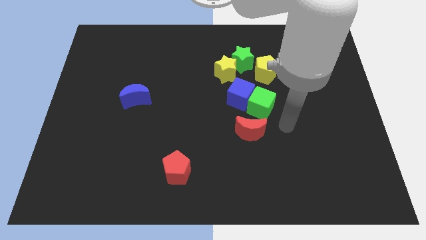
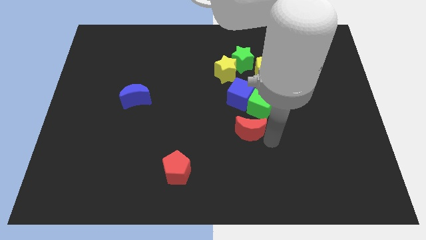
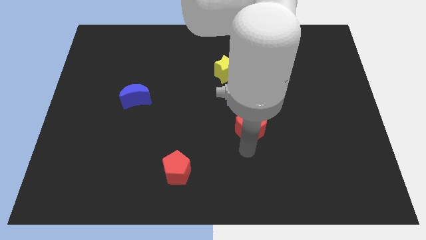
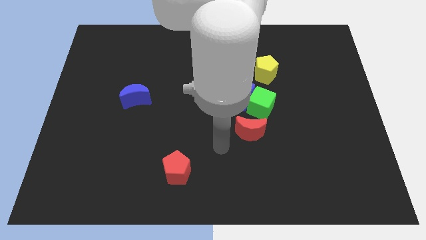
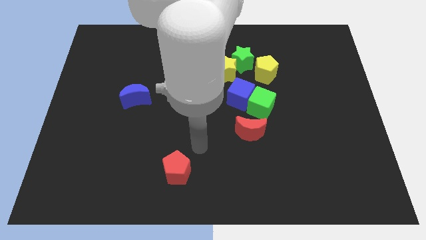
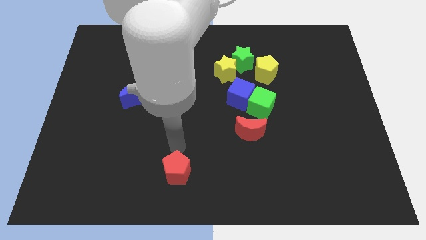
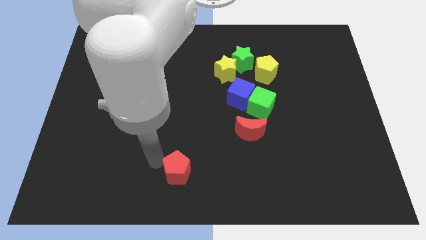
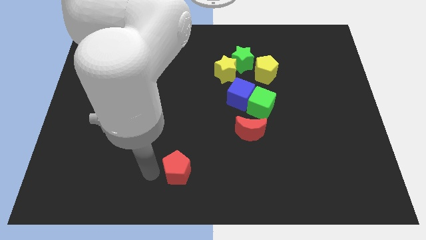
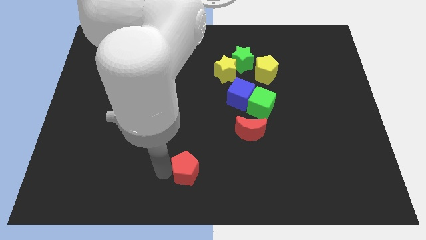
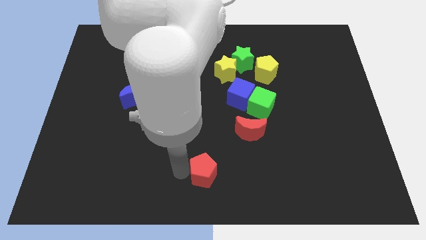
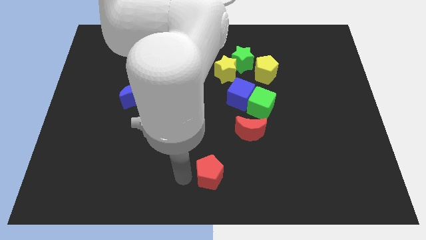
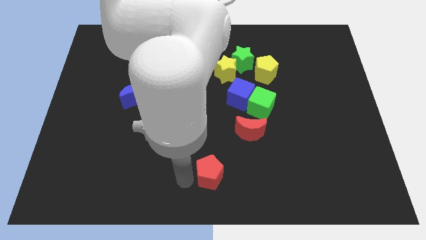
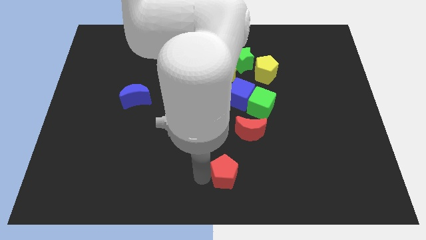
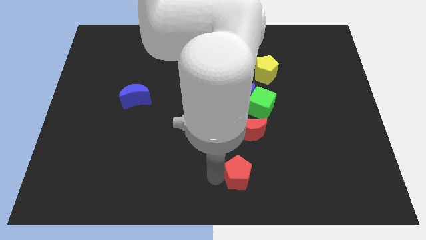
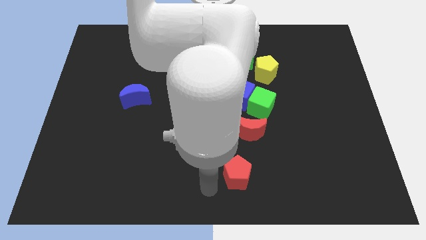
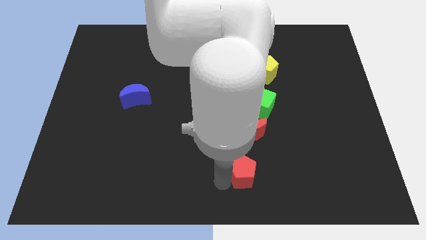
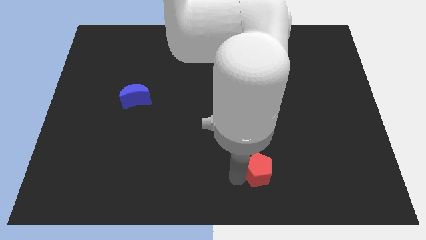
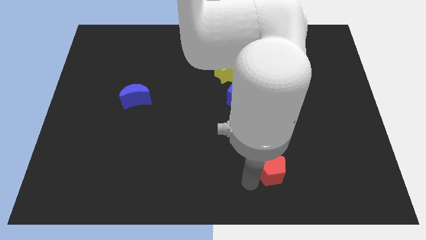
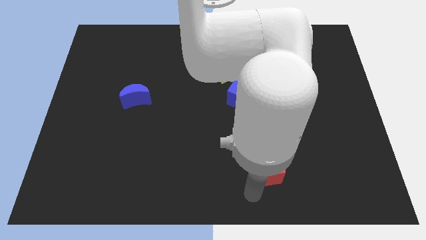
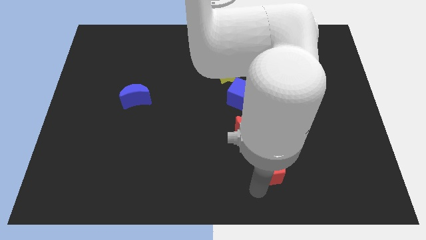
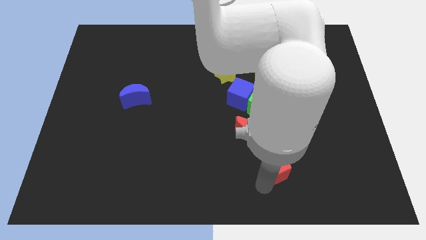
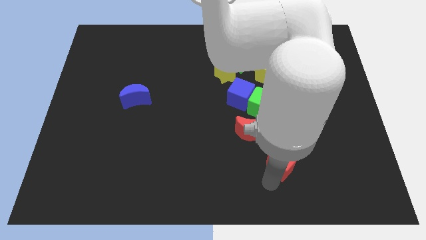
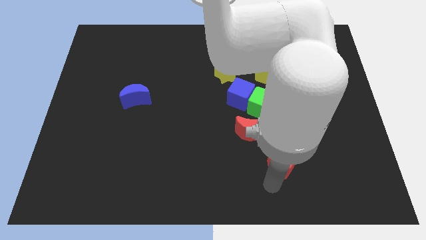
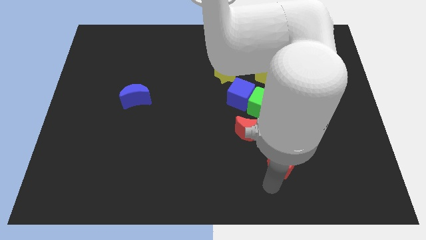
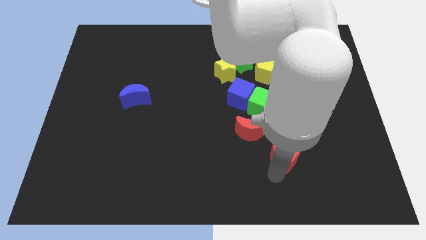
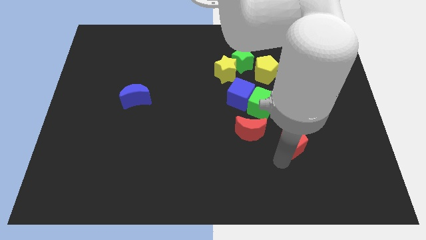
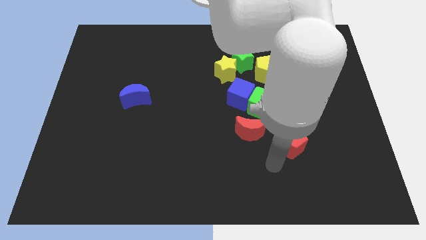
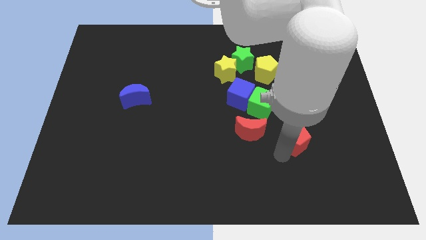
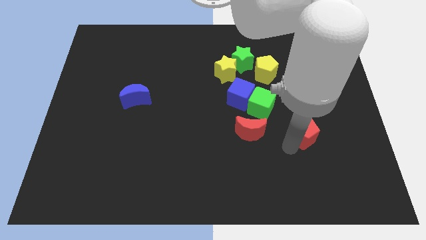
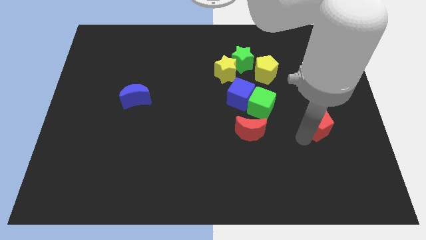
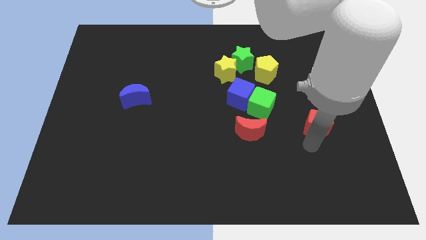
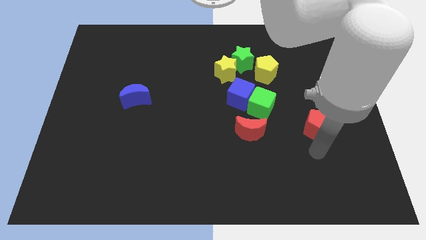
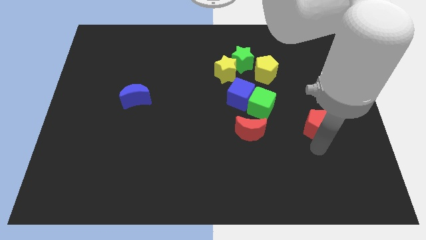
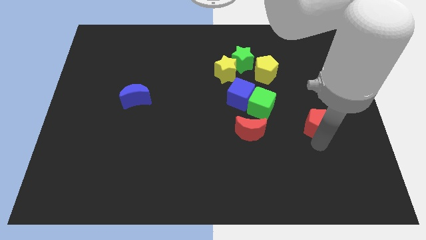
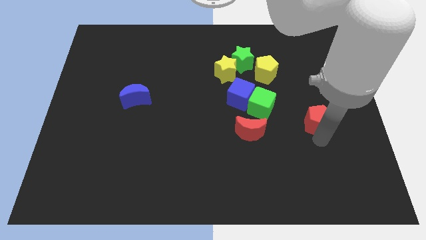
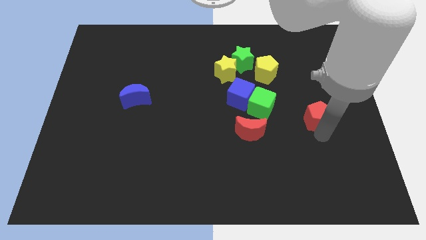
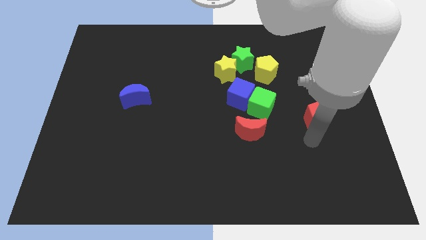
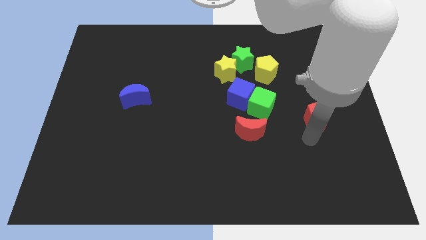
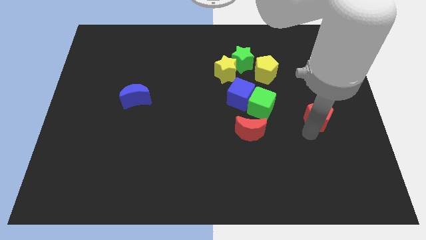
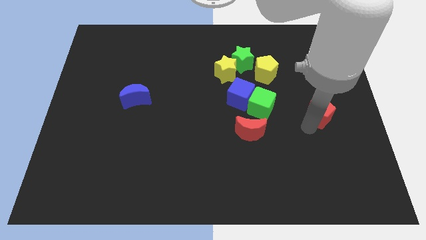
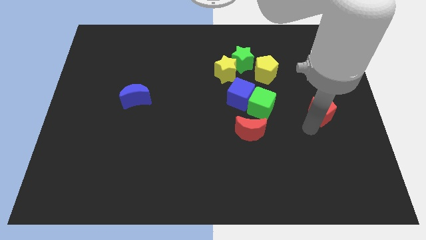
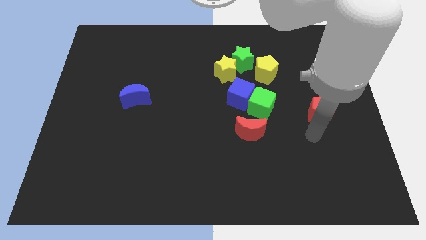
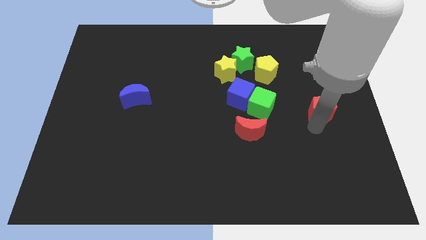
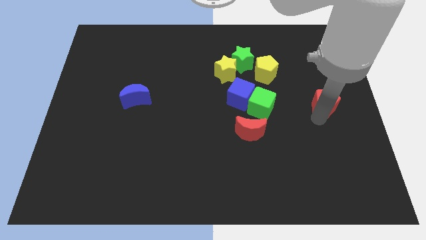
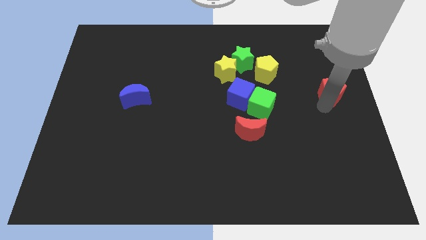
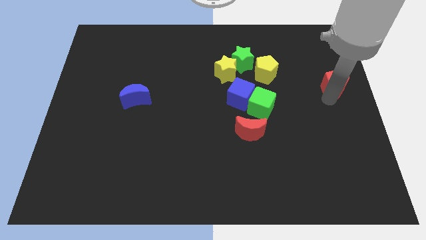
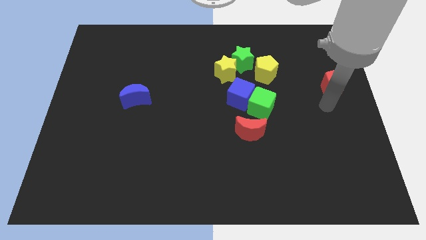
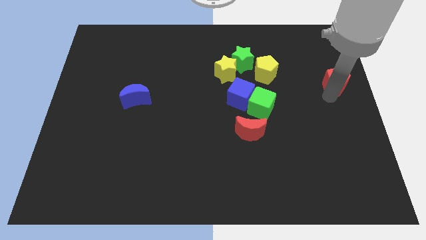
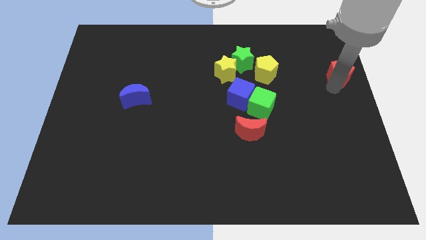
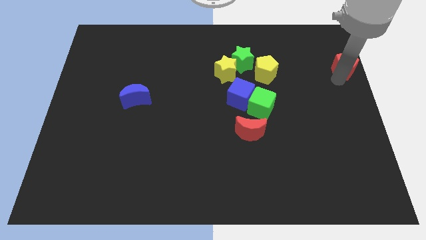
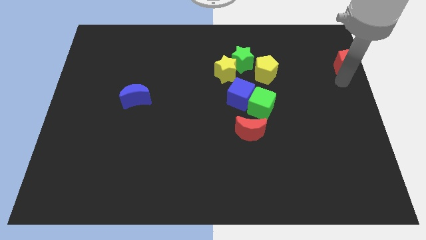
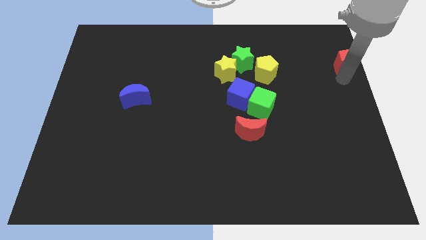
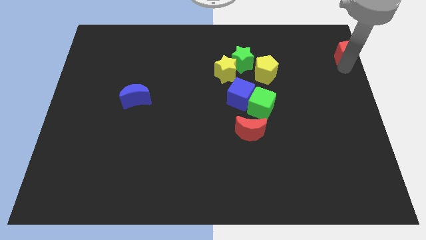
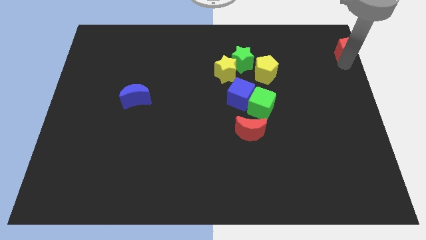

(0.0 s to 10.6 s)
put the red pentagon to the top right of the board

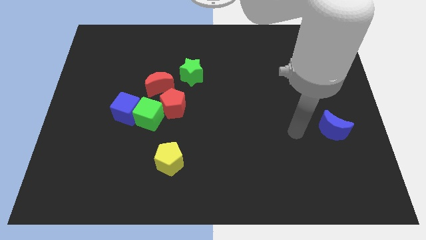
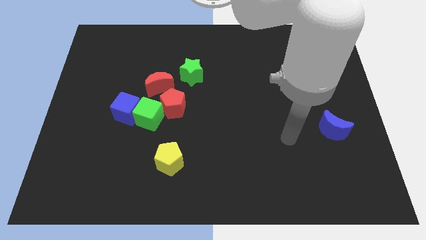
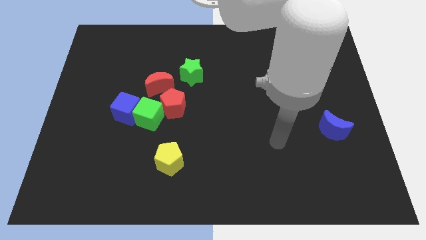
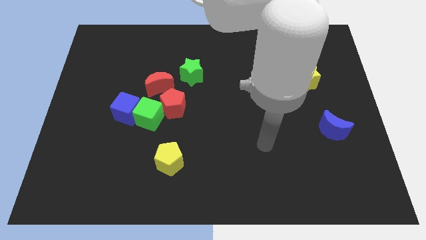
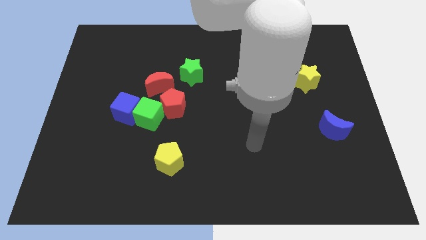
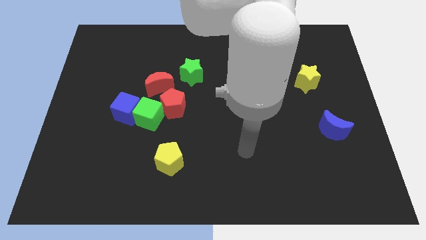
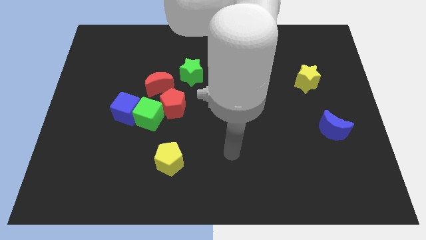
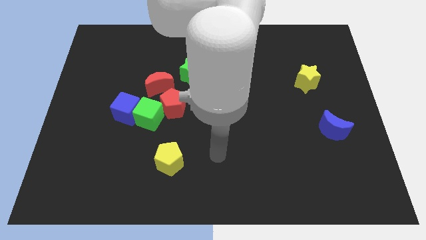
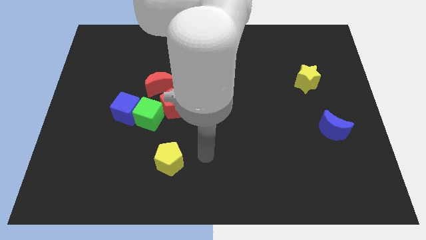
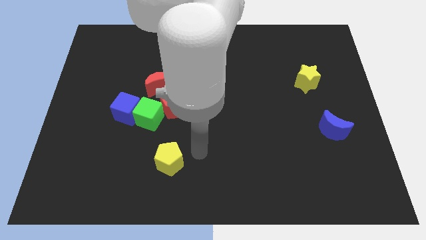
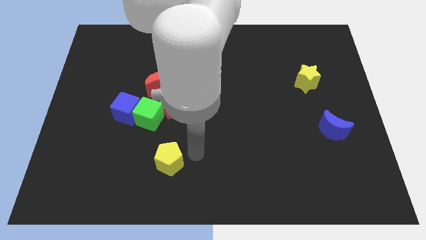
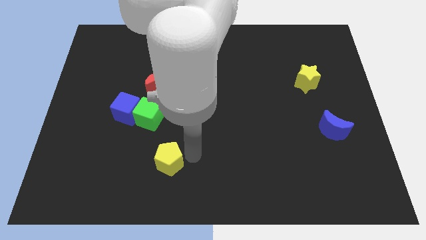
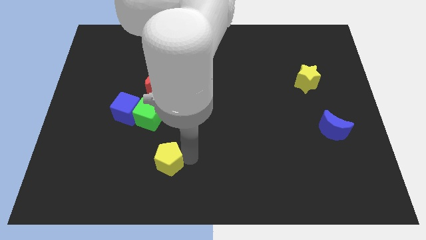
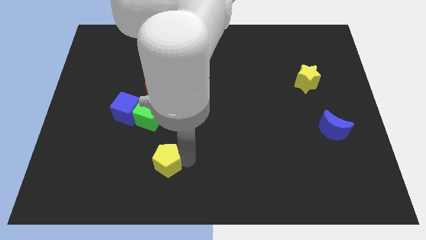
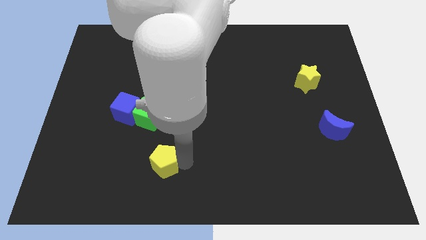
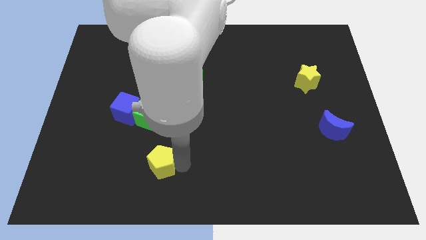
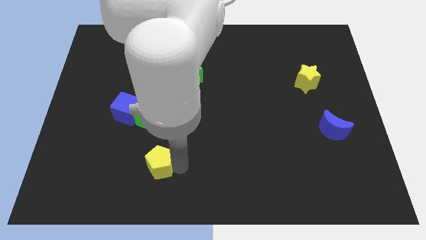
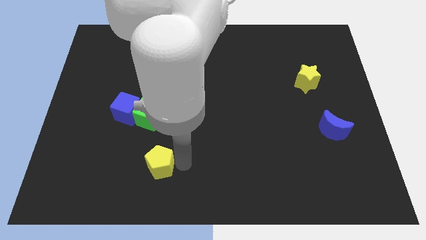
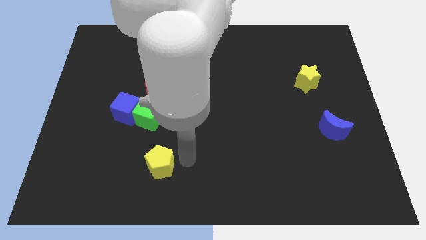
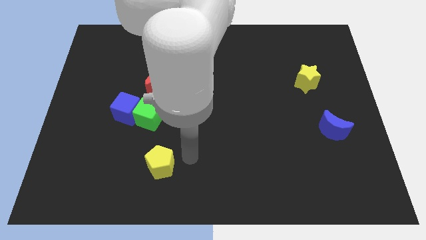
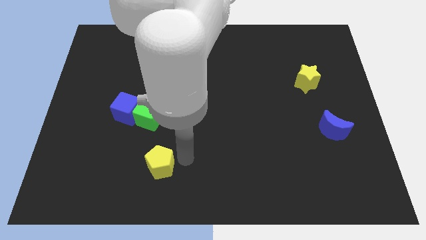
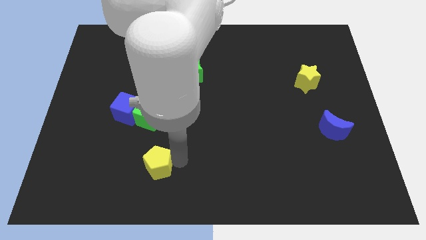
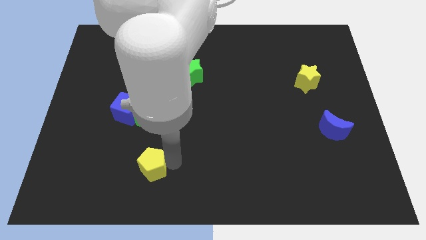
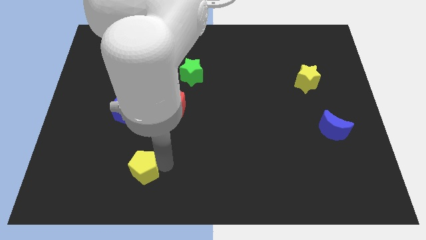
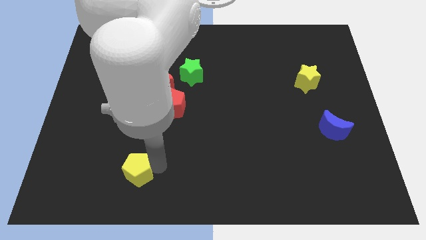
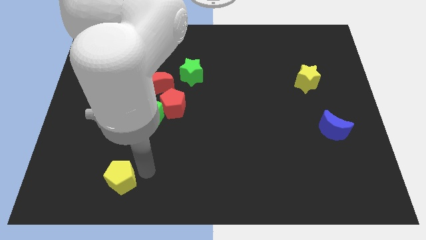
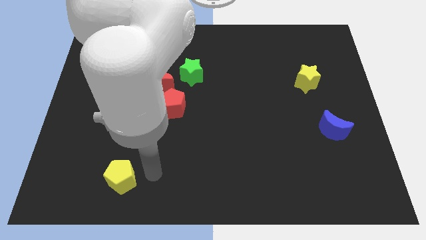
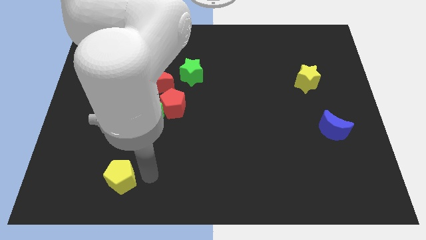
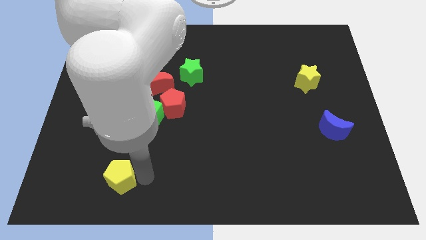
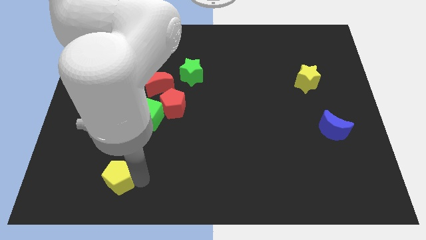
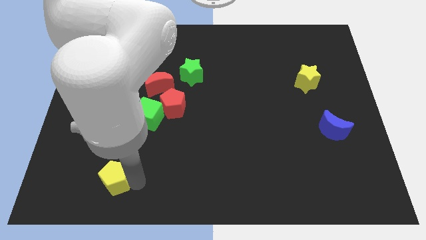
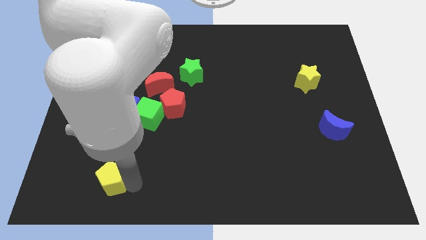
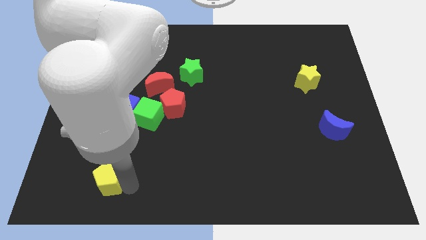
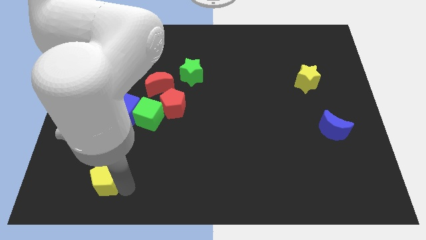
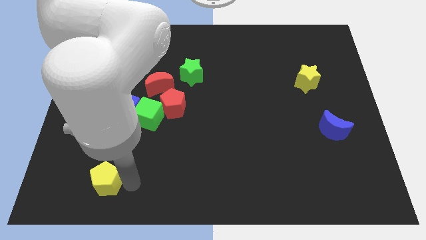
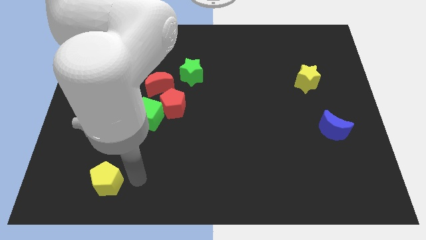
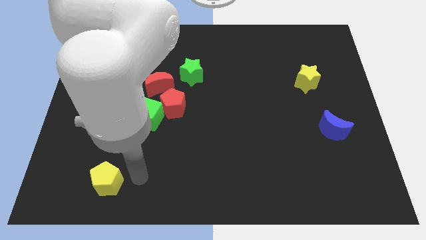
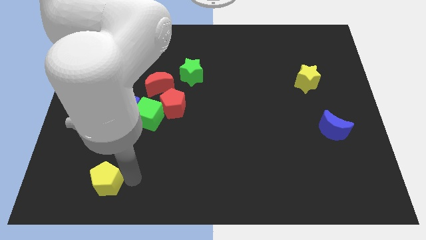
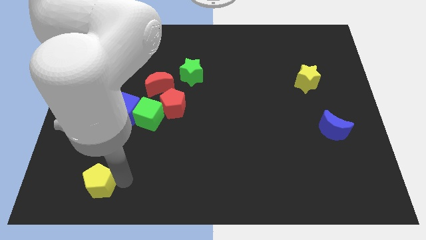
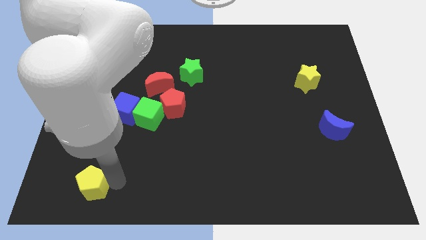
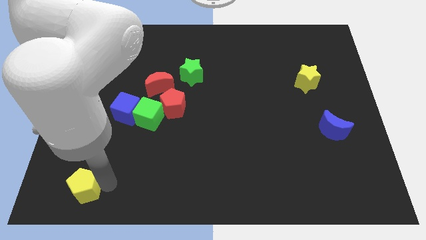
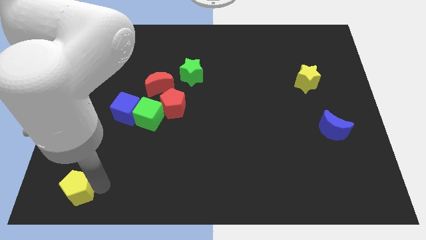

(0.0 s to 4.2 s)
slide the yellow pentagon to the bottom left of the board
